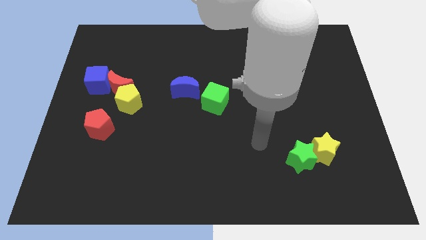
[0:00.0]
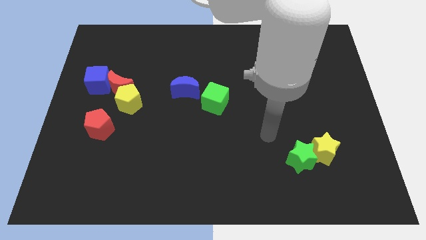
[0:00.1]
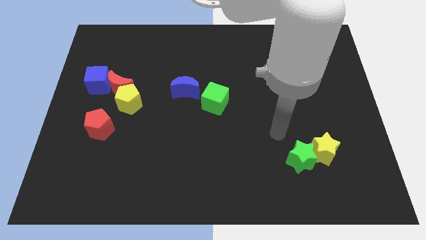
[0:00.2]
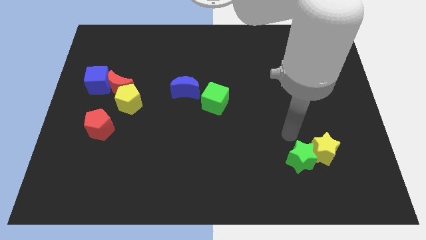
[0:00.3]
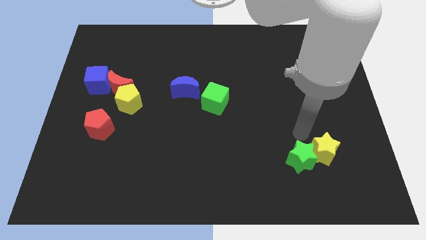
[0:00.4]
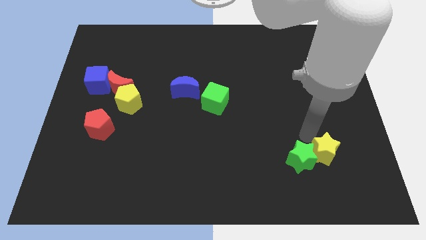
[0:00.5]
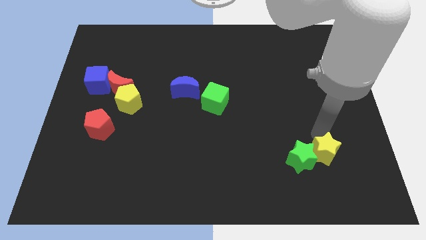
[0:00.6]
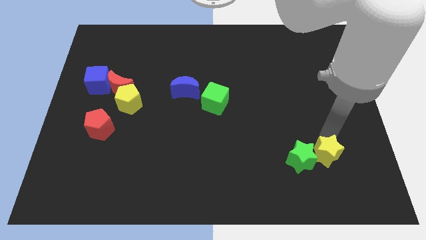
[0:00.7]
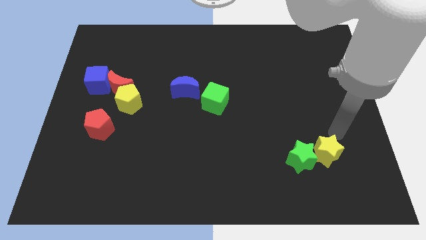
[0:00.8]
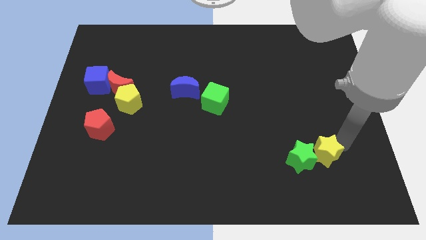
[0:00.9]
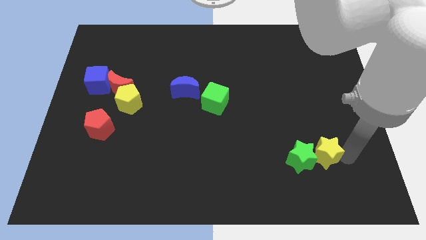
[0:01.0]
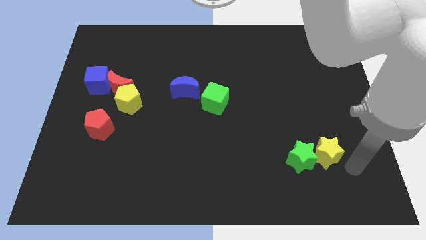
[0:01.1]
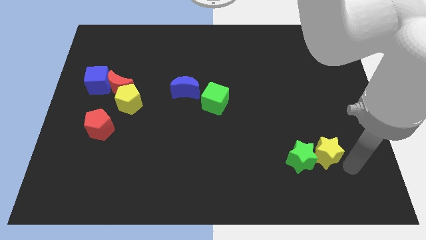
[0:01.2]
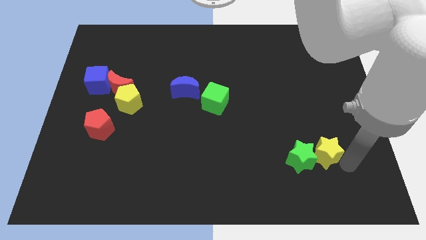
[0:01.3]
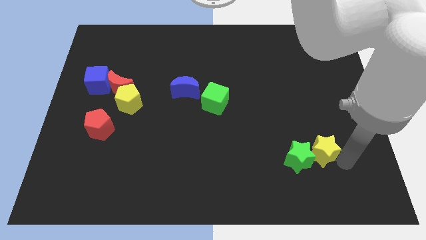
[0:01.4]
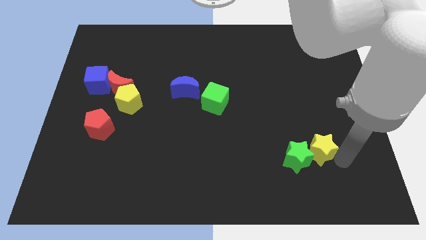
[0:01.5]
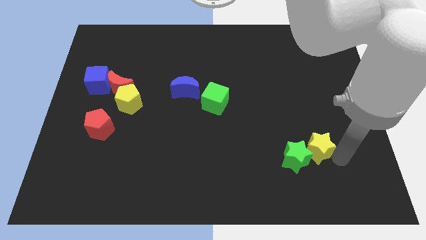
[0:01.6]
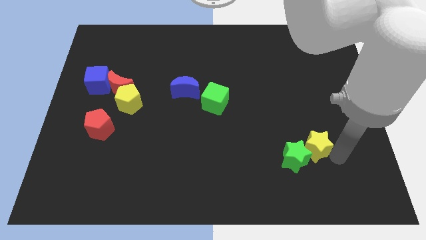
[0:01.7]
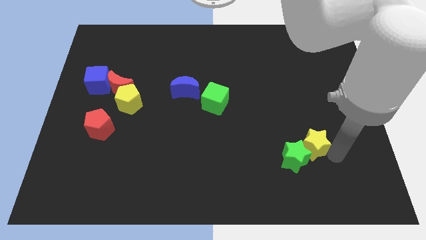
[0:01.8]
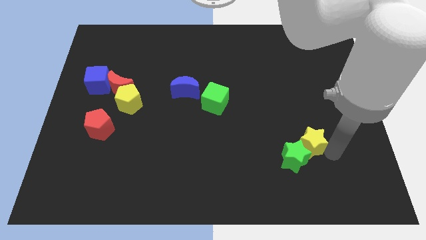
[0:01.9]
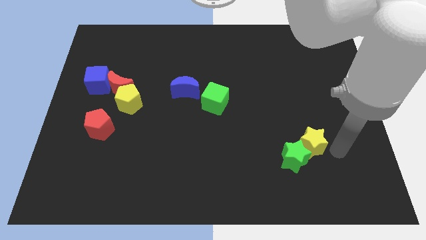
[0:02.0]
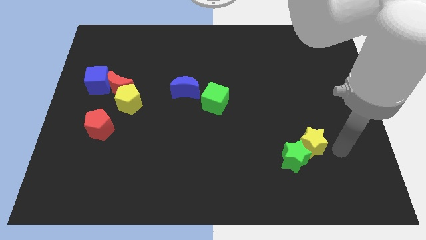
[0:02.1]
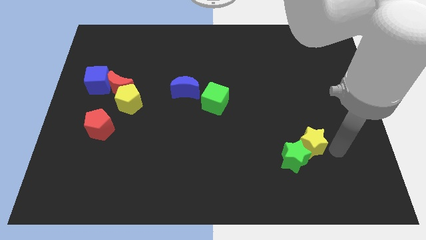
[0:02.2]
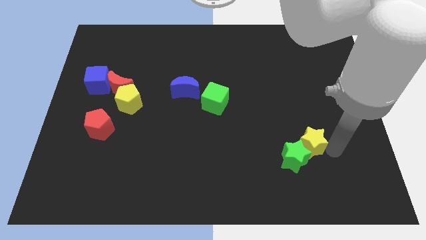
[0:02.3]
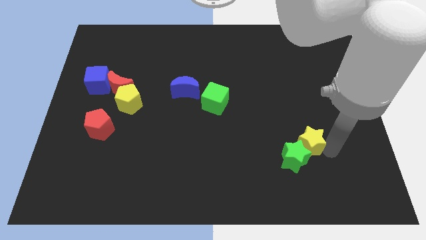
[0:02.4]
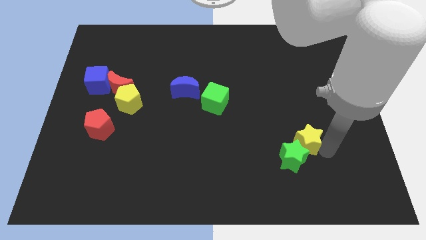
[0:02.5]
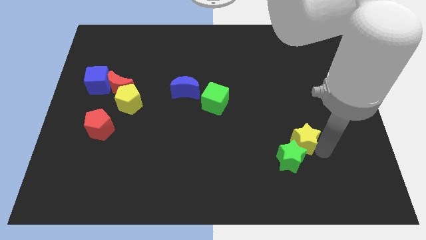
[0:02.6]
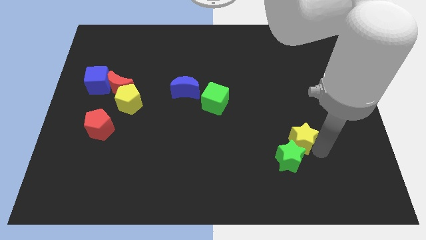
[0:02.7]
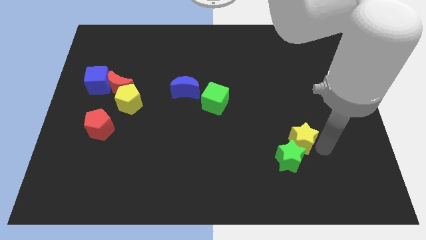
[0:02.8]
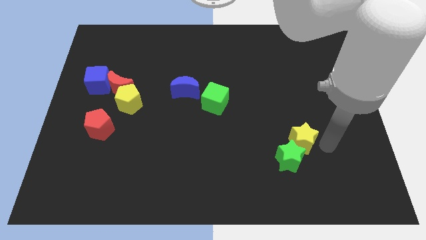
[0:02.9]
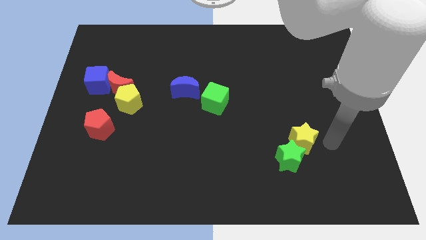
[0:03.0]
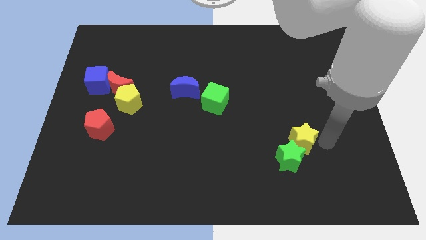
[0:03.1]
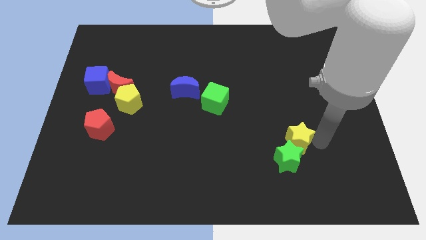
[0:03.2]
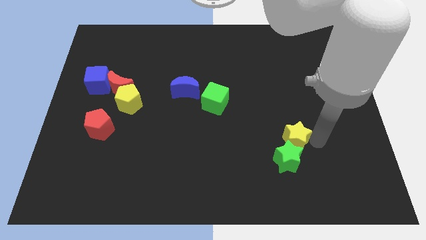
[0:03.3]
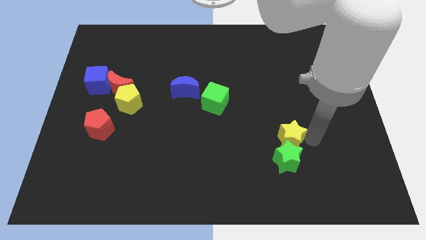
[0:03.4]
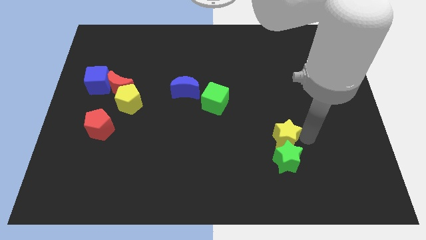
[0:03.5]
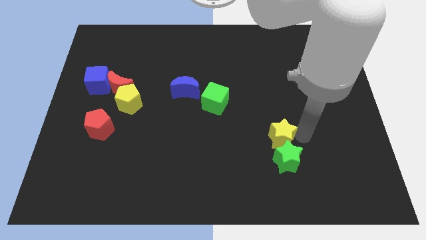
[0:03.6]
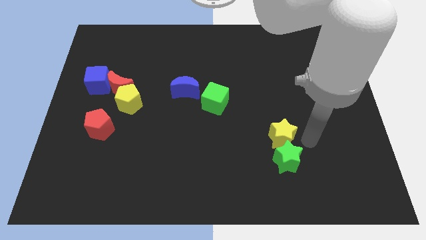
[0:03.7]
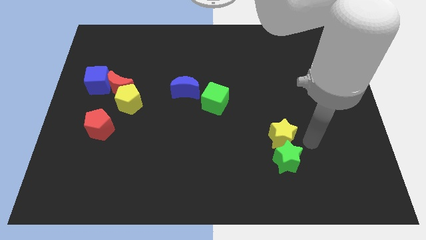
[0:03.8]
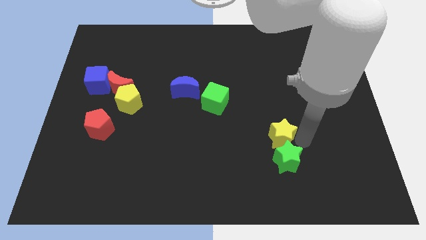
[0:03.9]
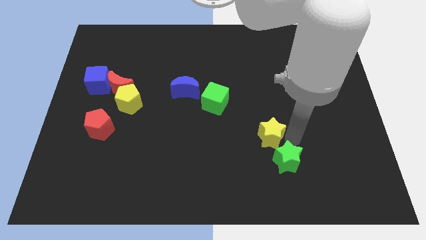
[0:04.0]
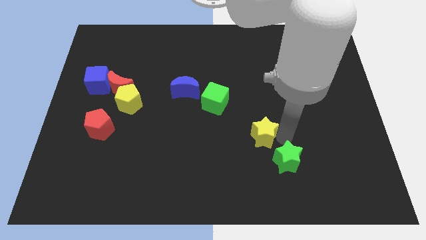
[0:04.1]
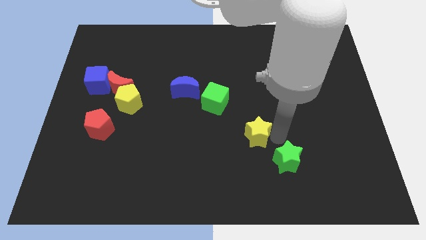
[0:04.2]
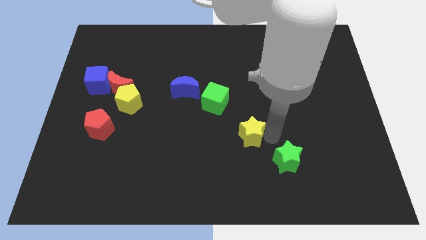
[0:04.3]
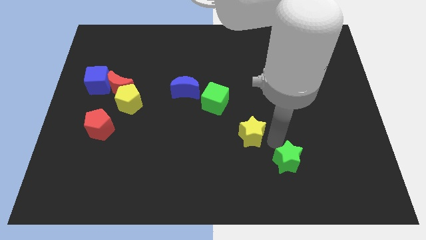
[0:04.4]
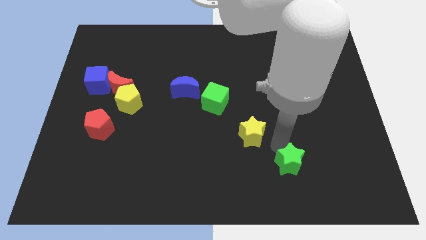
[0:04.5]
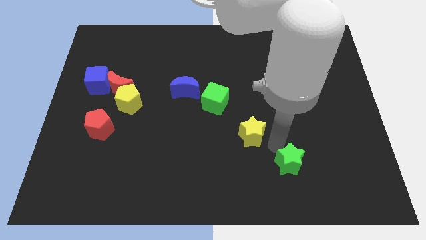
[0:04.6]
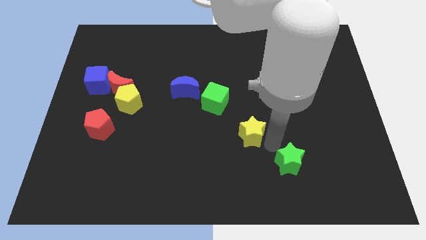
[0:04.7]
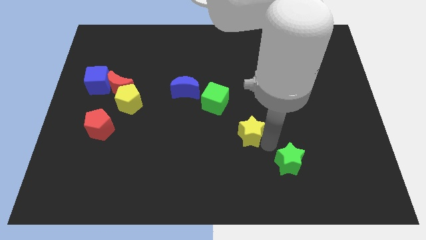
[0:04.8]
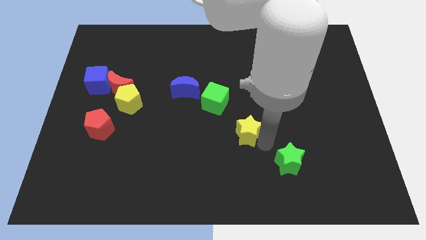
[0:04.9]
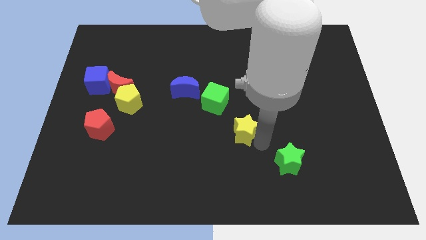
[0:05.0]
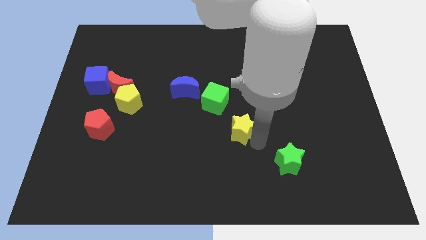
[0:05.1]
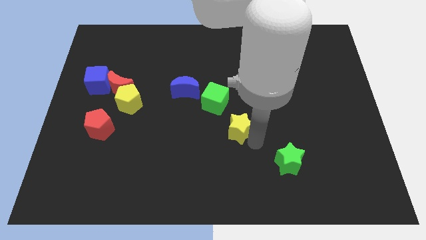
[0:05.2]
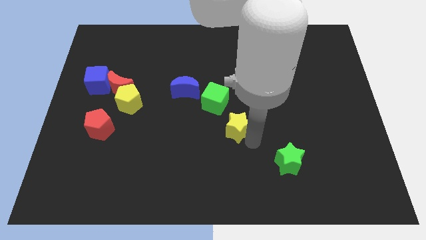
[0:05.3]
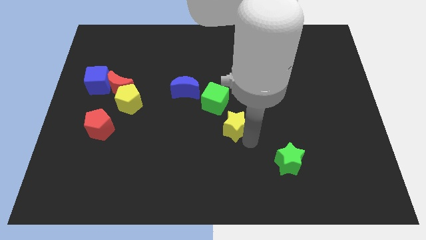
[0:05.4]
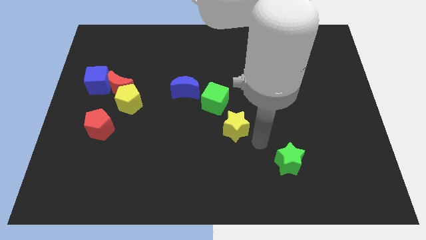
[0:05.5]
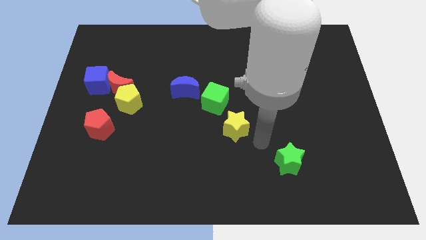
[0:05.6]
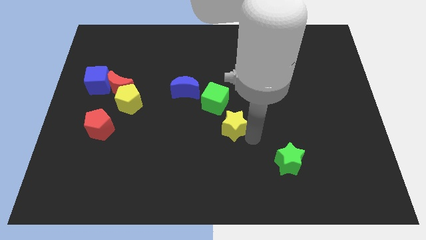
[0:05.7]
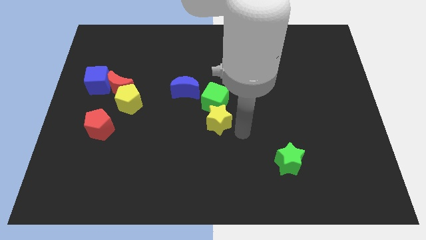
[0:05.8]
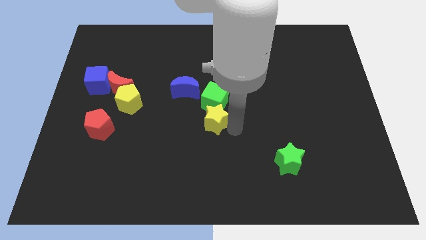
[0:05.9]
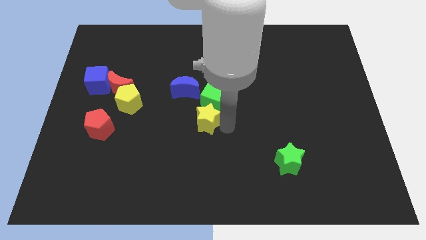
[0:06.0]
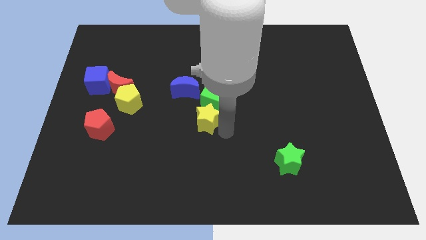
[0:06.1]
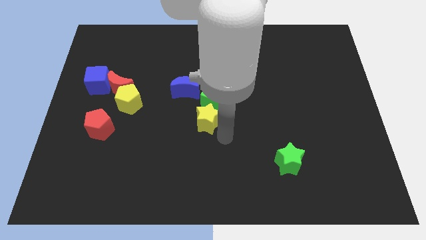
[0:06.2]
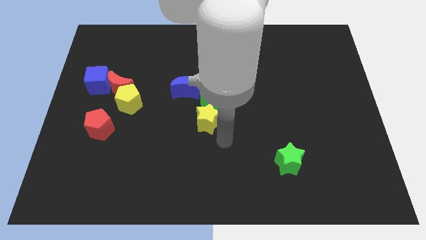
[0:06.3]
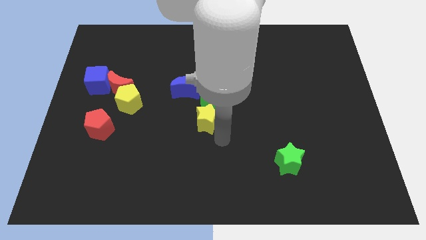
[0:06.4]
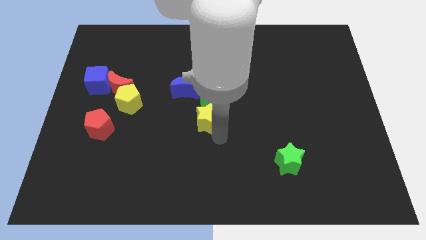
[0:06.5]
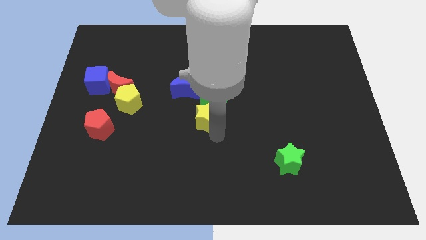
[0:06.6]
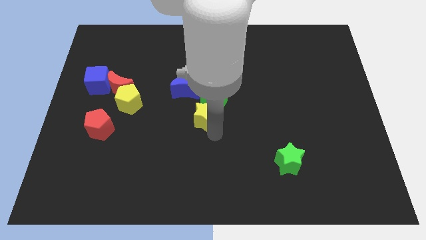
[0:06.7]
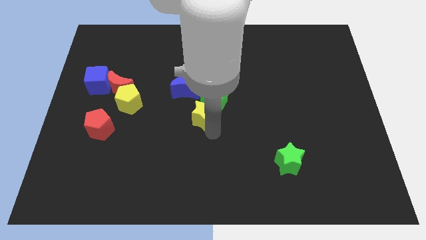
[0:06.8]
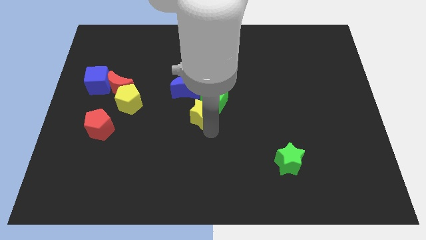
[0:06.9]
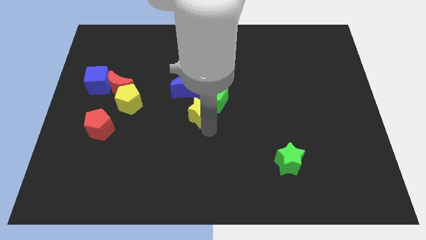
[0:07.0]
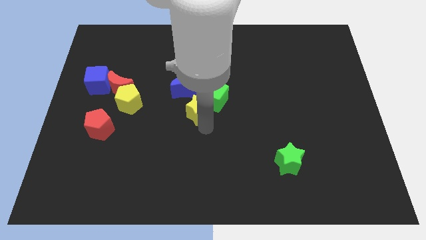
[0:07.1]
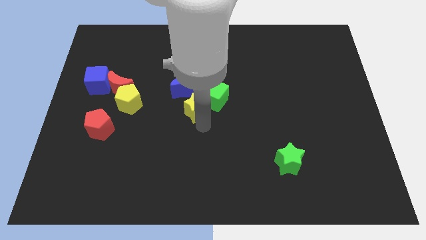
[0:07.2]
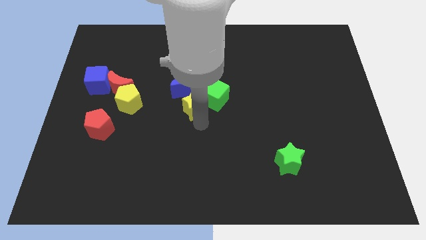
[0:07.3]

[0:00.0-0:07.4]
slide the yellow star towards the blue moon
